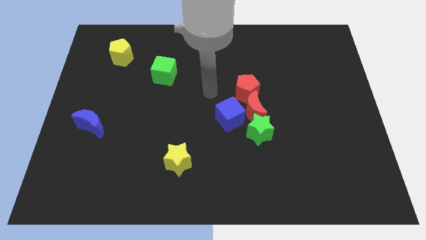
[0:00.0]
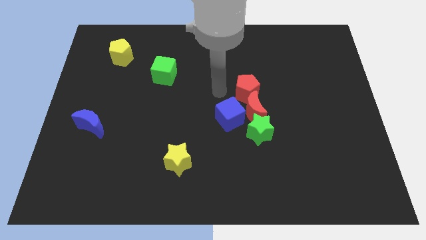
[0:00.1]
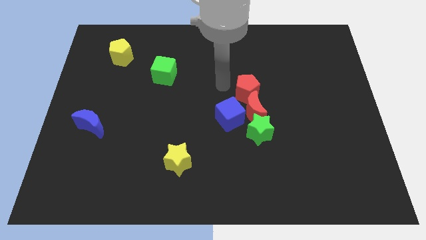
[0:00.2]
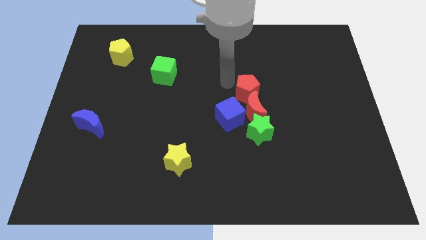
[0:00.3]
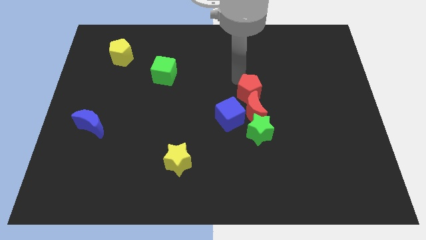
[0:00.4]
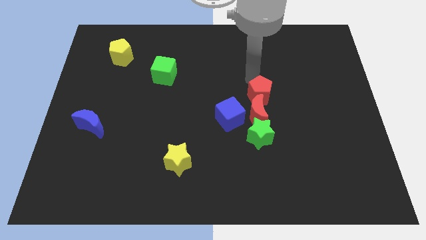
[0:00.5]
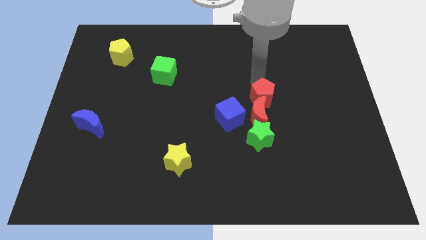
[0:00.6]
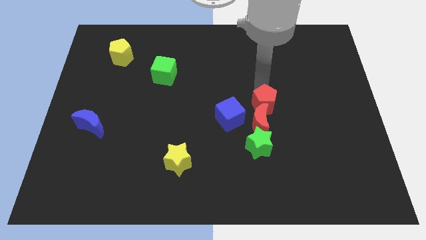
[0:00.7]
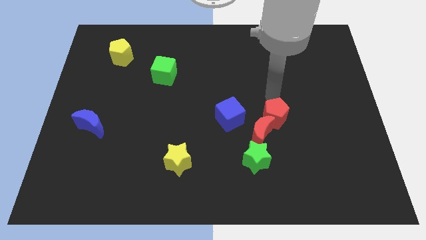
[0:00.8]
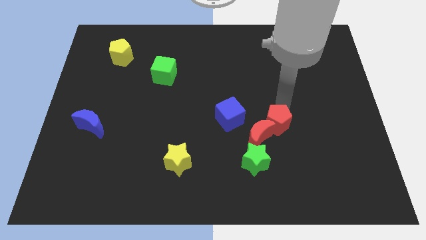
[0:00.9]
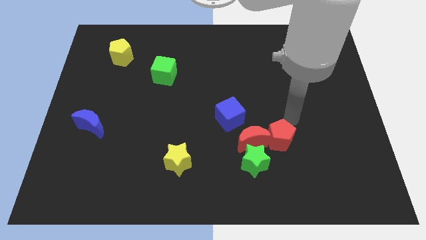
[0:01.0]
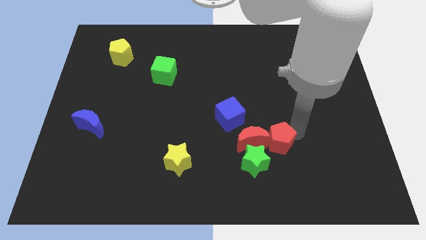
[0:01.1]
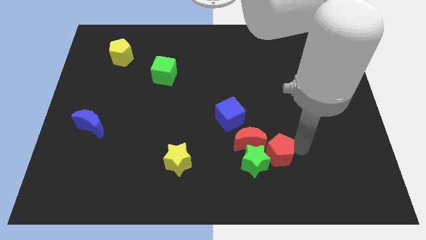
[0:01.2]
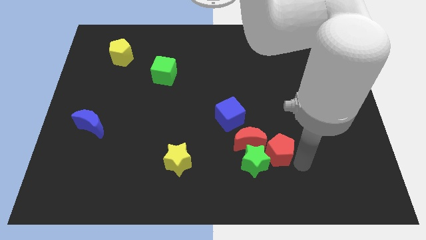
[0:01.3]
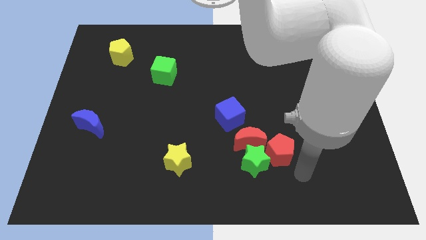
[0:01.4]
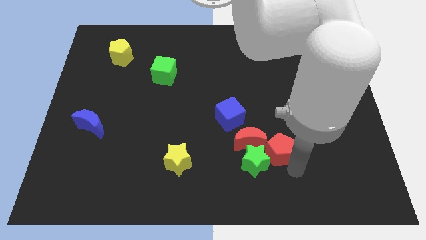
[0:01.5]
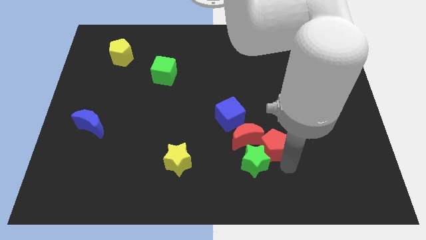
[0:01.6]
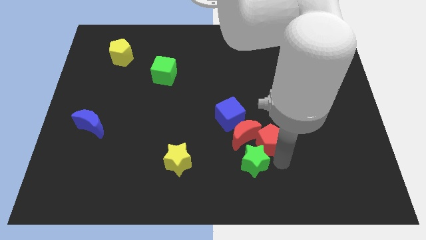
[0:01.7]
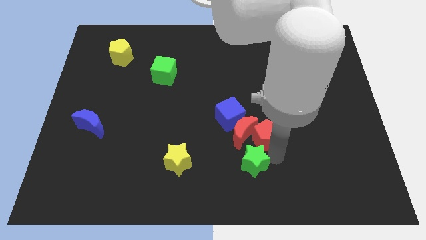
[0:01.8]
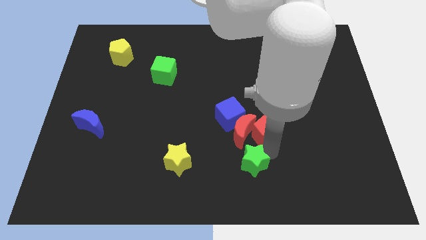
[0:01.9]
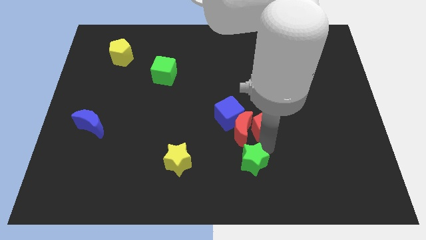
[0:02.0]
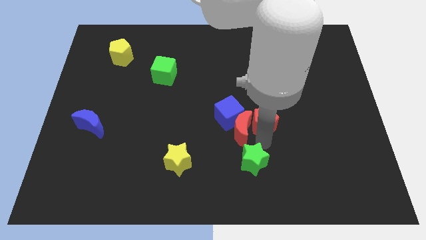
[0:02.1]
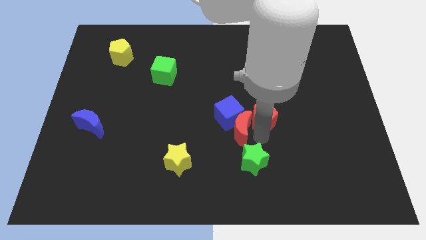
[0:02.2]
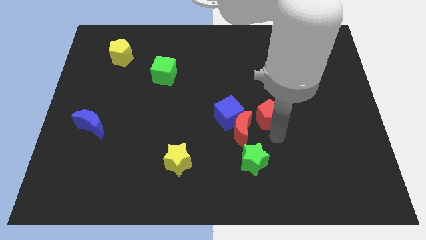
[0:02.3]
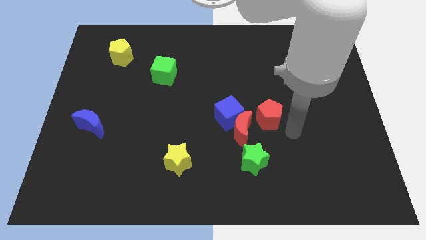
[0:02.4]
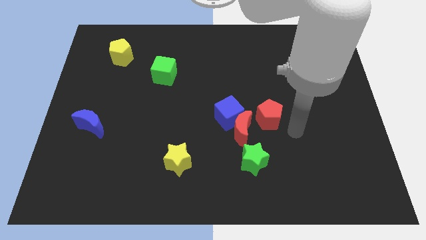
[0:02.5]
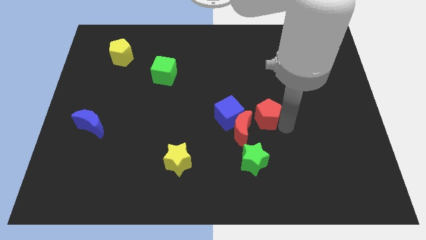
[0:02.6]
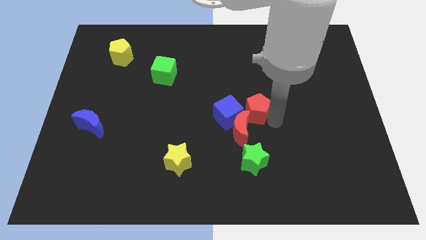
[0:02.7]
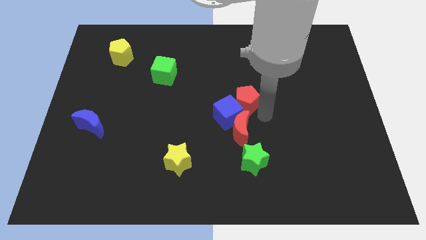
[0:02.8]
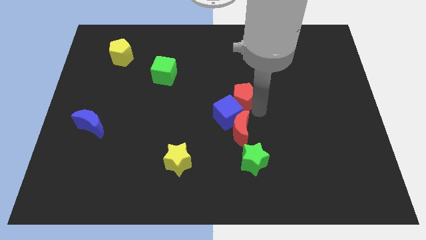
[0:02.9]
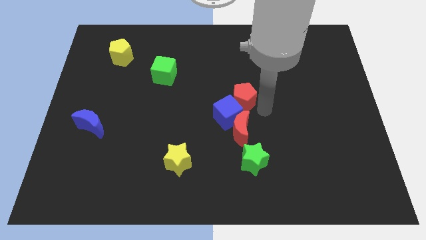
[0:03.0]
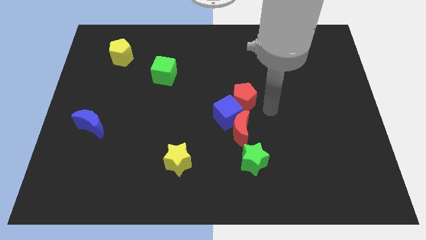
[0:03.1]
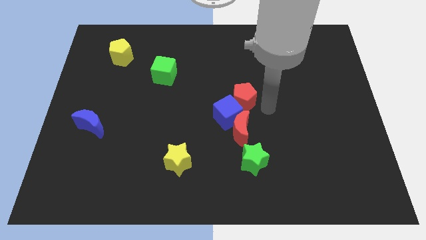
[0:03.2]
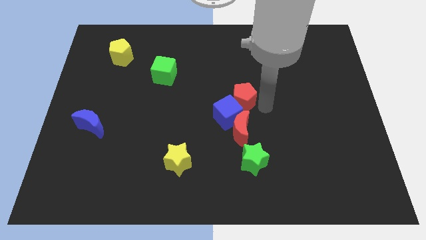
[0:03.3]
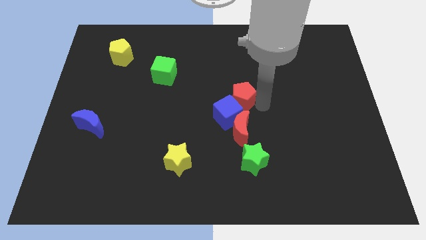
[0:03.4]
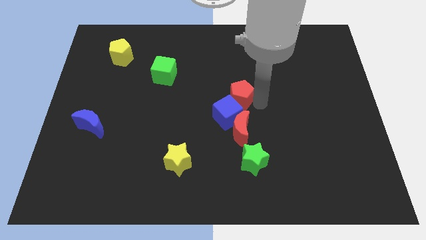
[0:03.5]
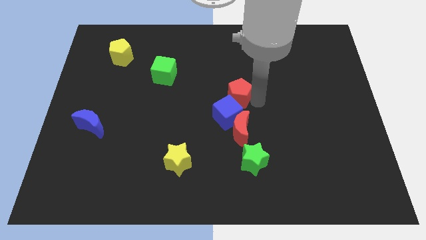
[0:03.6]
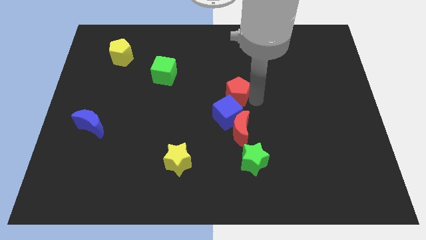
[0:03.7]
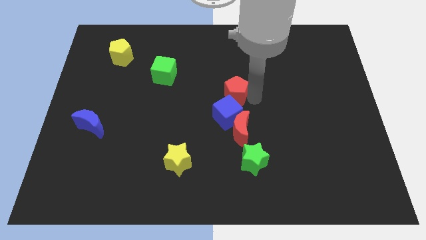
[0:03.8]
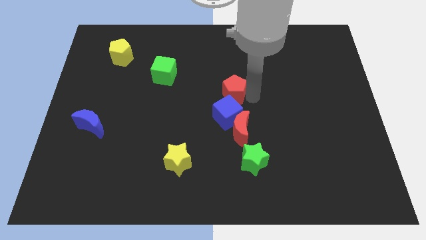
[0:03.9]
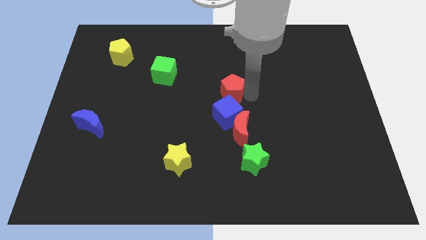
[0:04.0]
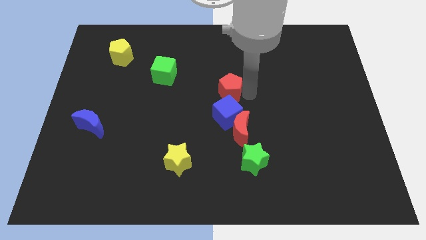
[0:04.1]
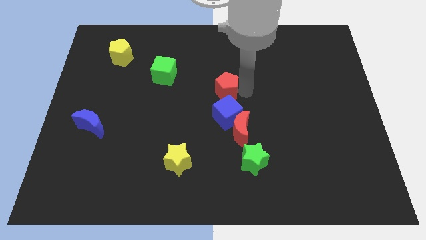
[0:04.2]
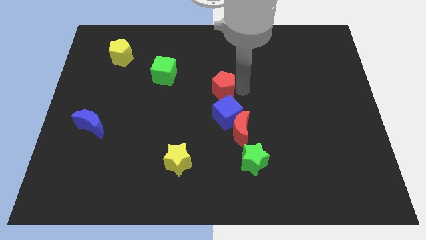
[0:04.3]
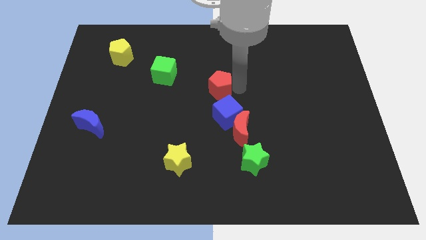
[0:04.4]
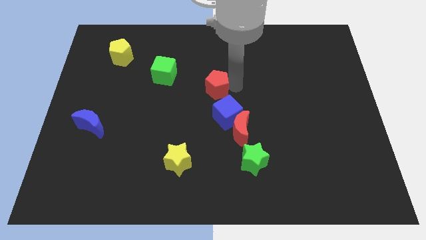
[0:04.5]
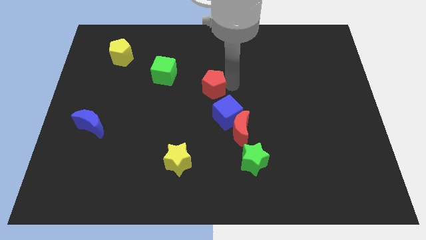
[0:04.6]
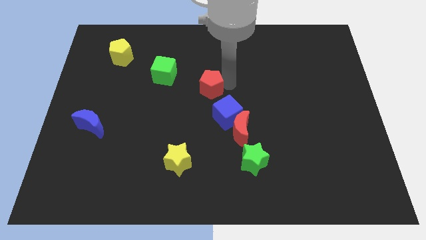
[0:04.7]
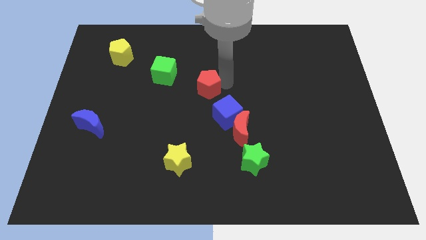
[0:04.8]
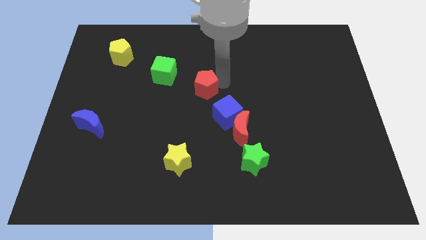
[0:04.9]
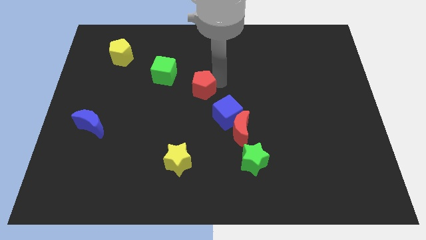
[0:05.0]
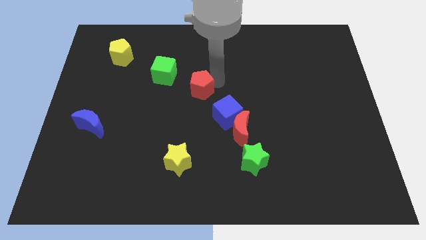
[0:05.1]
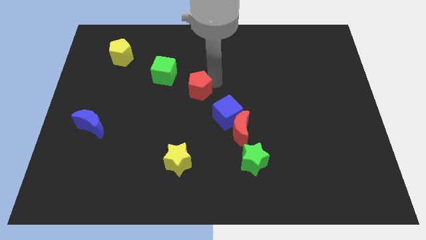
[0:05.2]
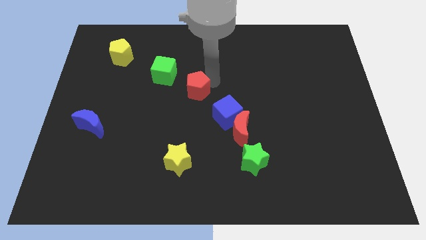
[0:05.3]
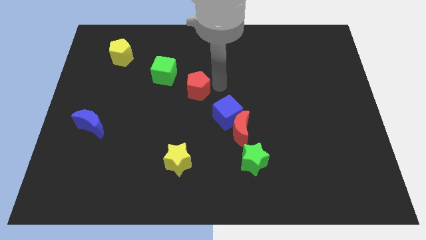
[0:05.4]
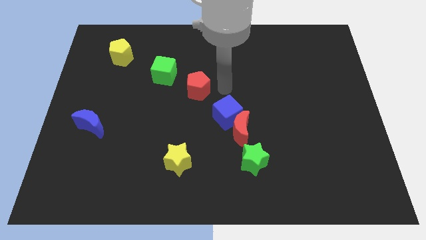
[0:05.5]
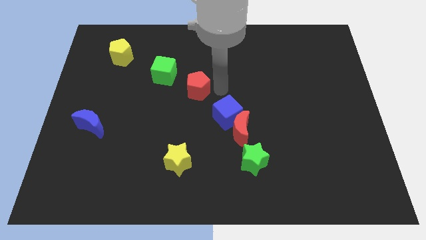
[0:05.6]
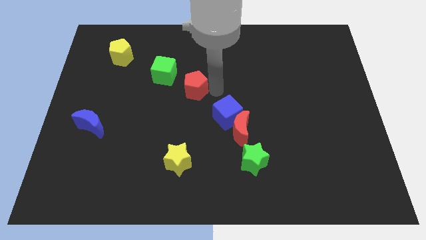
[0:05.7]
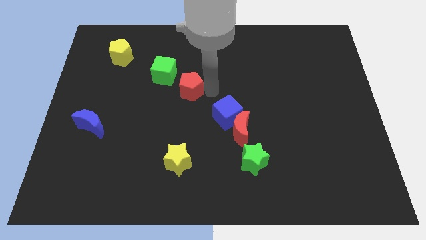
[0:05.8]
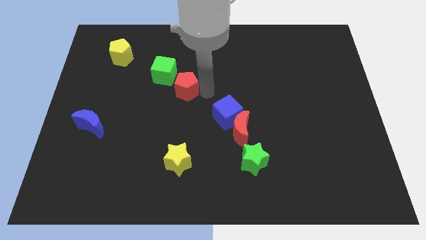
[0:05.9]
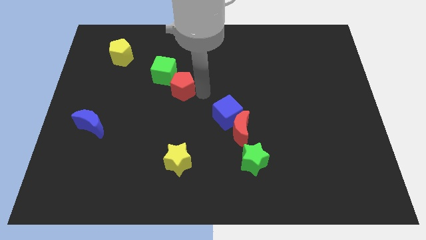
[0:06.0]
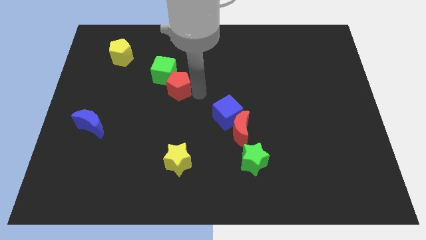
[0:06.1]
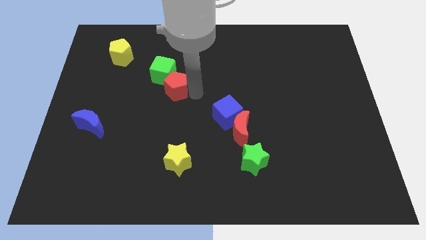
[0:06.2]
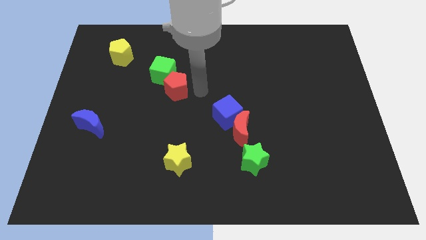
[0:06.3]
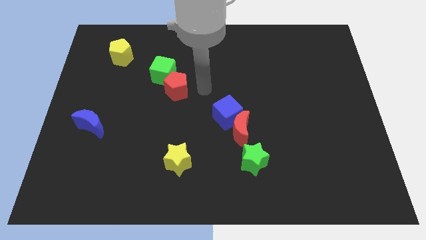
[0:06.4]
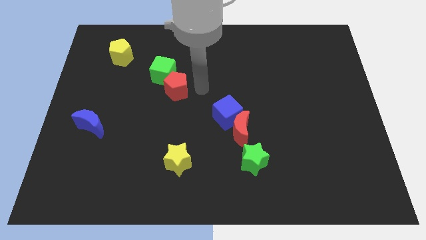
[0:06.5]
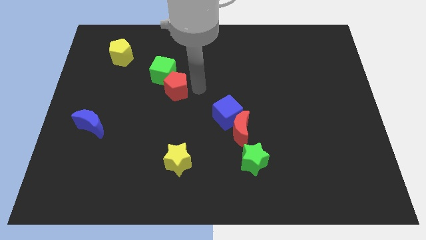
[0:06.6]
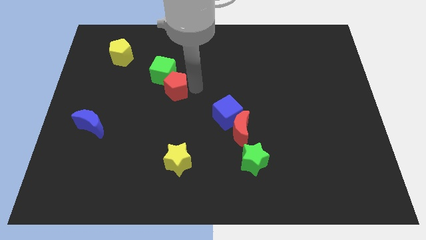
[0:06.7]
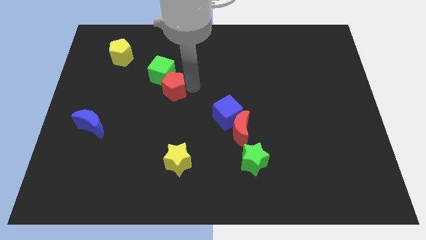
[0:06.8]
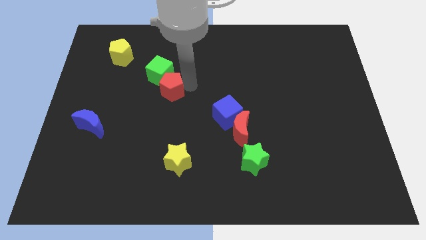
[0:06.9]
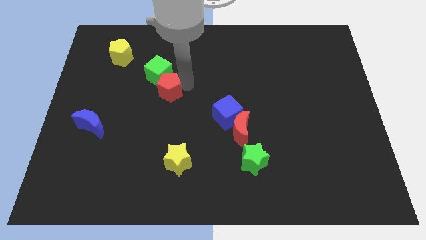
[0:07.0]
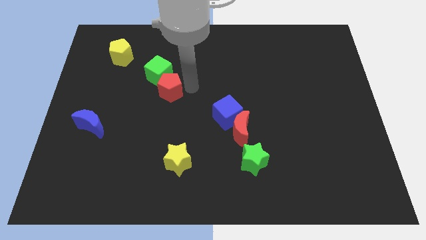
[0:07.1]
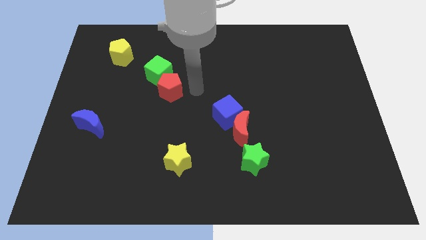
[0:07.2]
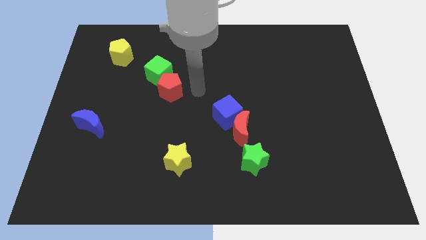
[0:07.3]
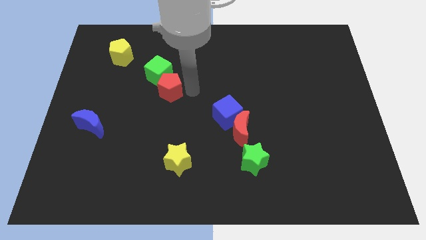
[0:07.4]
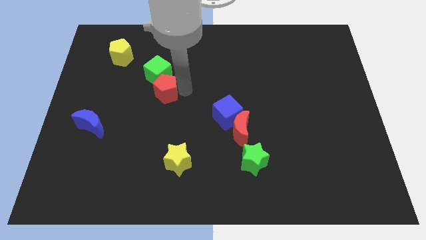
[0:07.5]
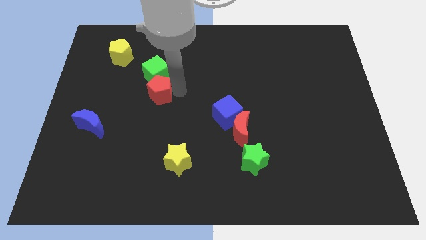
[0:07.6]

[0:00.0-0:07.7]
push the red pentagon left

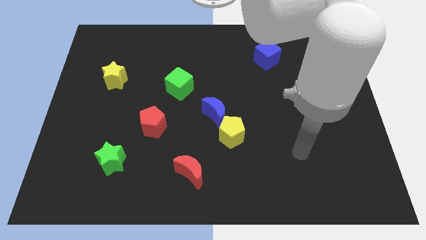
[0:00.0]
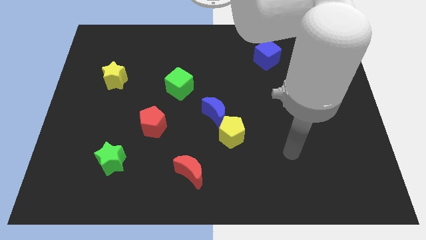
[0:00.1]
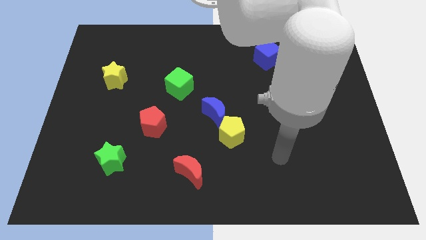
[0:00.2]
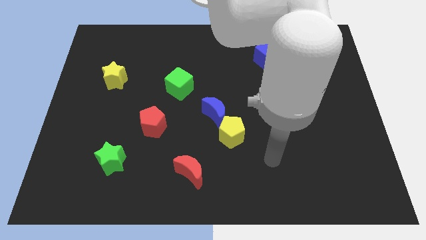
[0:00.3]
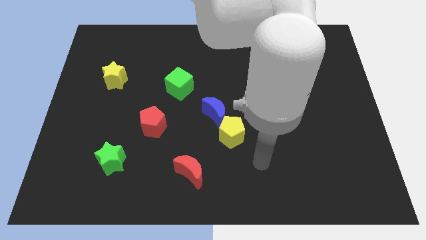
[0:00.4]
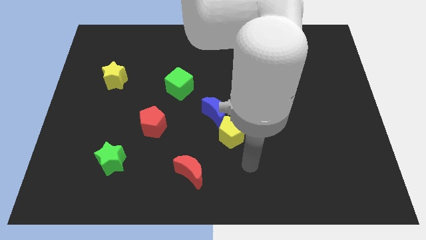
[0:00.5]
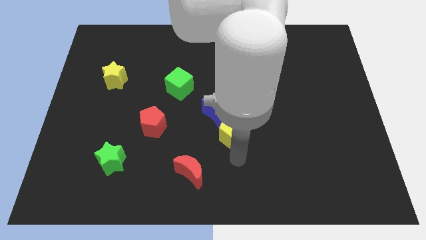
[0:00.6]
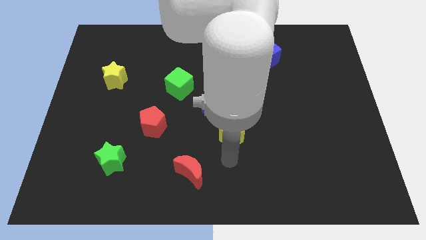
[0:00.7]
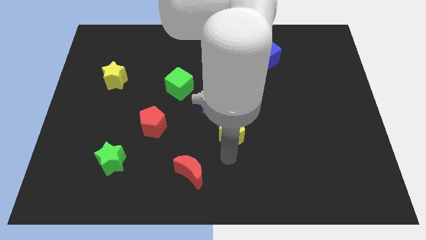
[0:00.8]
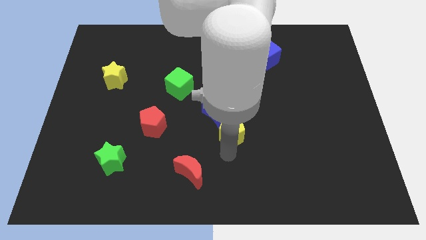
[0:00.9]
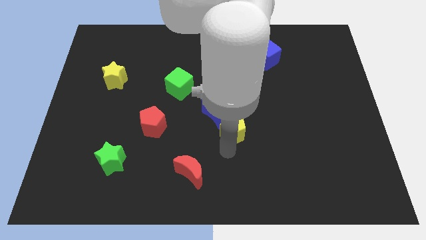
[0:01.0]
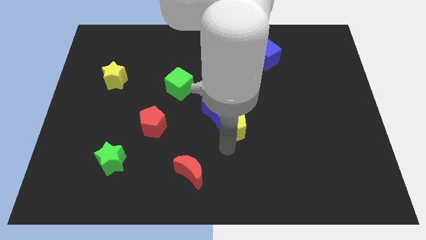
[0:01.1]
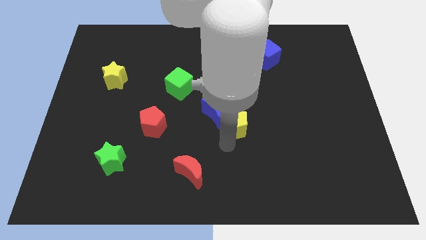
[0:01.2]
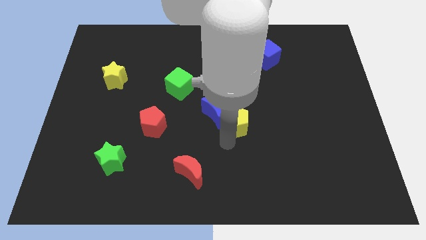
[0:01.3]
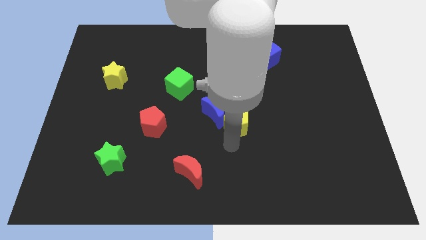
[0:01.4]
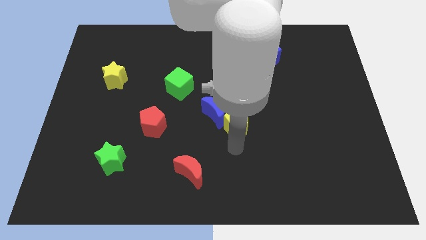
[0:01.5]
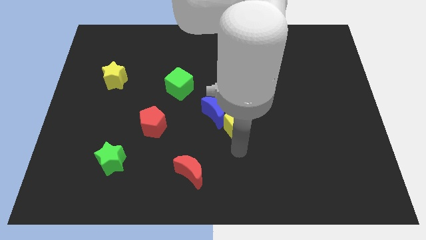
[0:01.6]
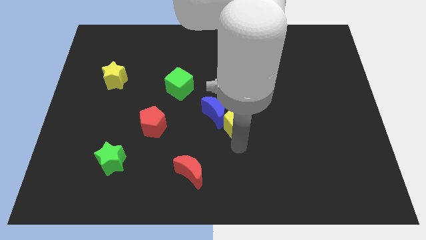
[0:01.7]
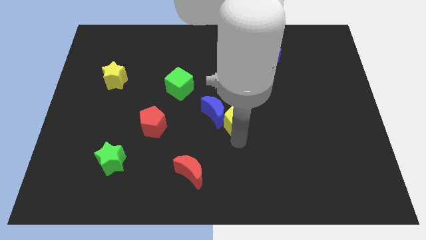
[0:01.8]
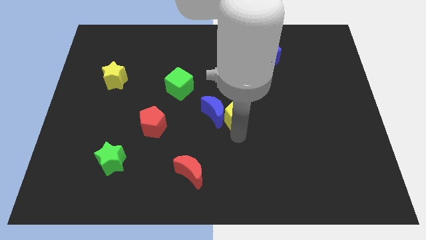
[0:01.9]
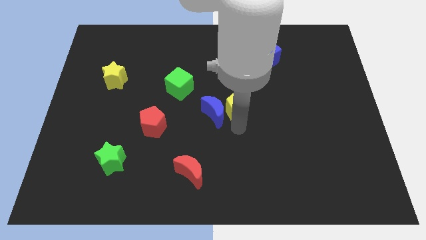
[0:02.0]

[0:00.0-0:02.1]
slightly push the yellow pentagon upwards
